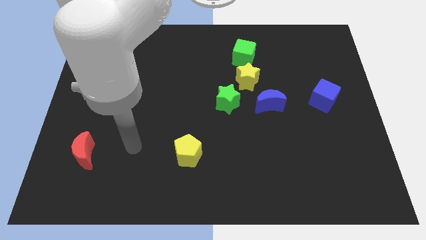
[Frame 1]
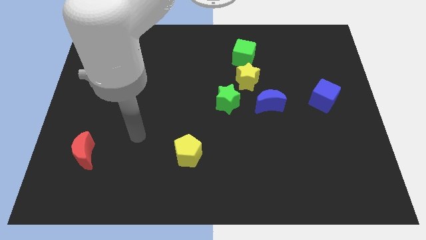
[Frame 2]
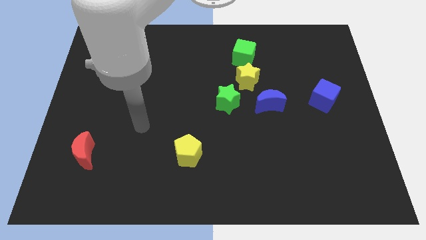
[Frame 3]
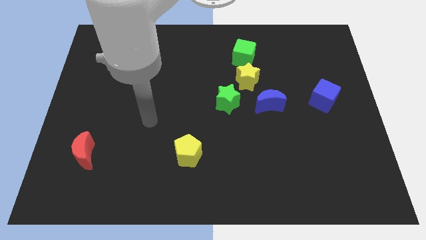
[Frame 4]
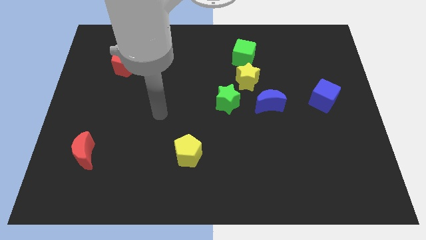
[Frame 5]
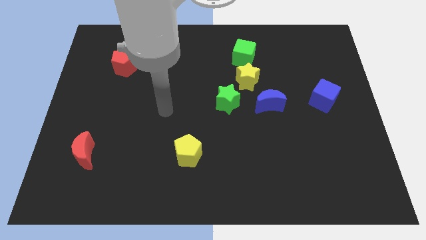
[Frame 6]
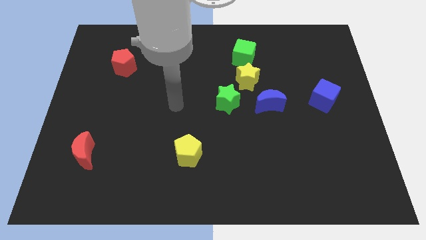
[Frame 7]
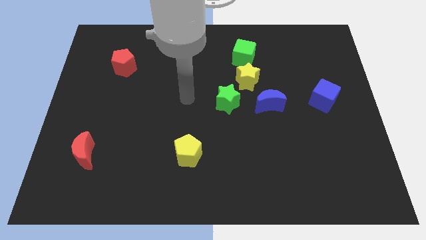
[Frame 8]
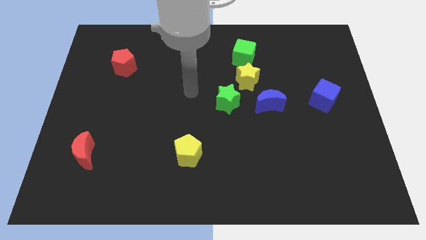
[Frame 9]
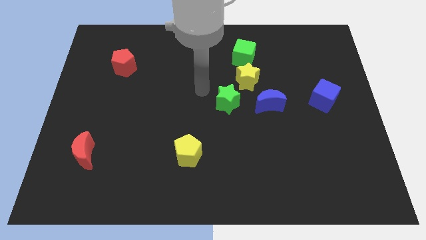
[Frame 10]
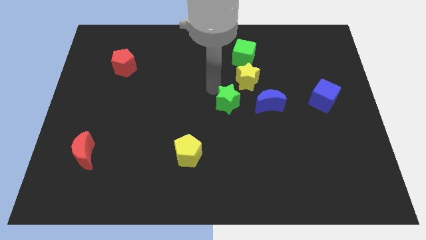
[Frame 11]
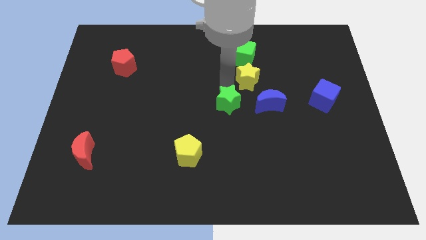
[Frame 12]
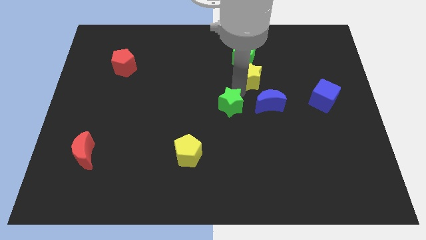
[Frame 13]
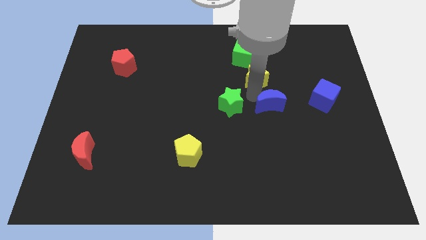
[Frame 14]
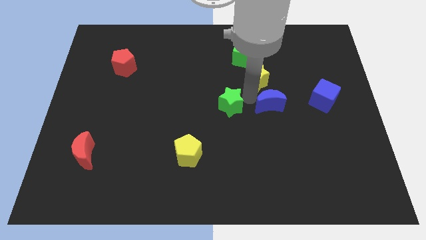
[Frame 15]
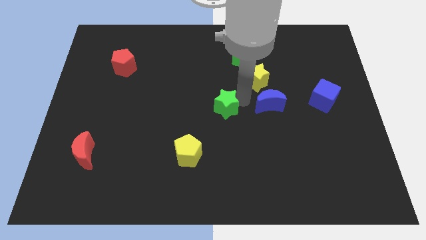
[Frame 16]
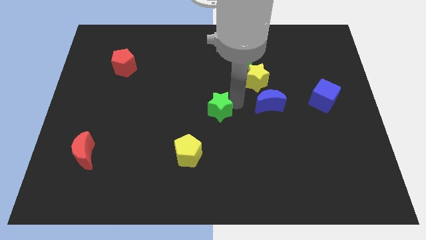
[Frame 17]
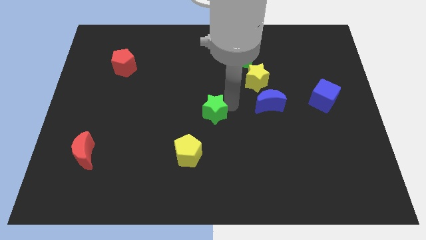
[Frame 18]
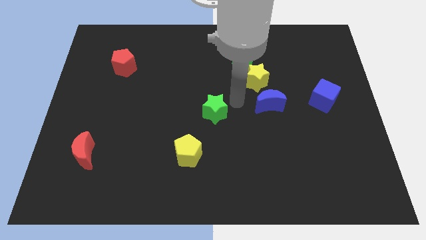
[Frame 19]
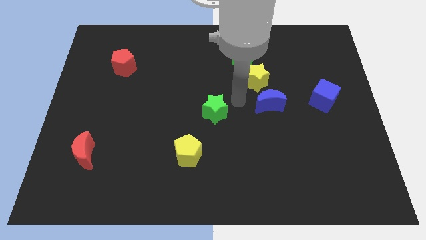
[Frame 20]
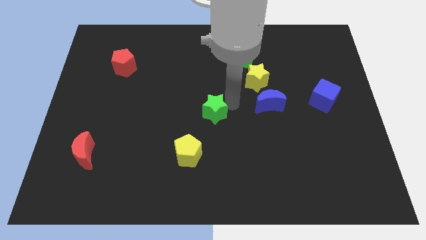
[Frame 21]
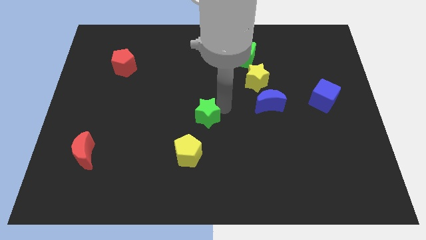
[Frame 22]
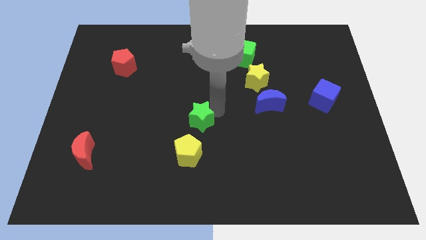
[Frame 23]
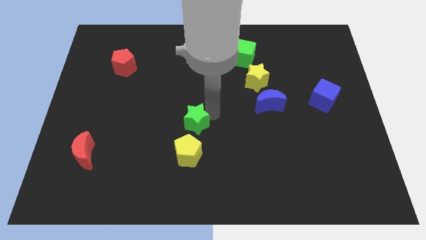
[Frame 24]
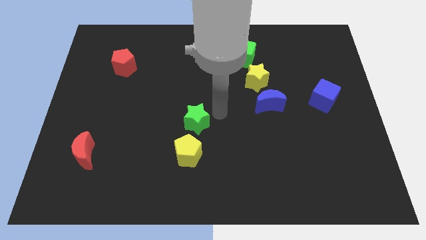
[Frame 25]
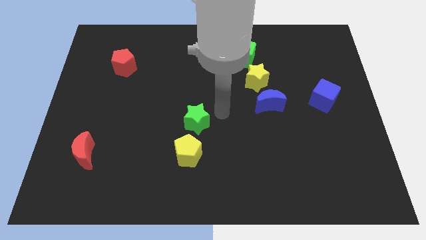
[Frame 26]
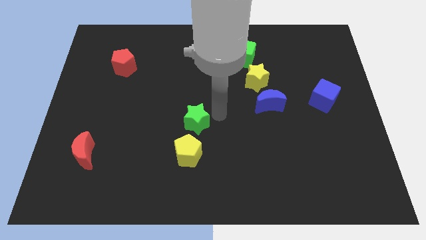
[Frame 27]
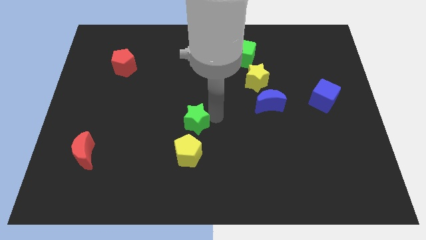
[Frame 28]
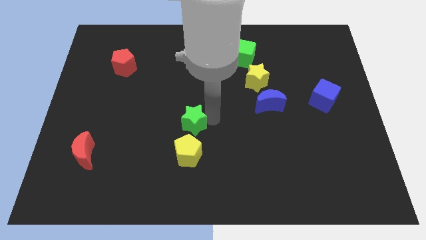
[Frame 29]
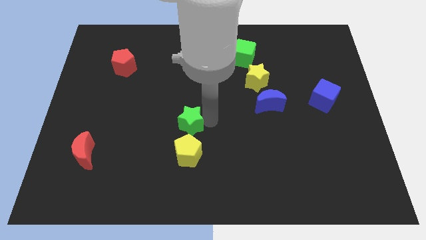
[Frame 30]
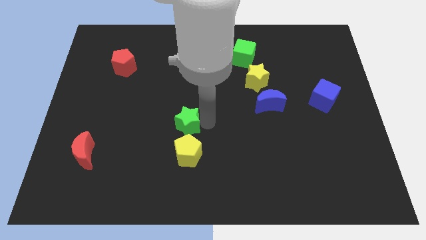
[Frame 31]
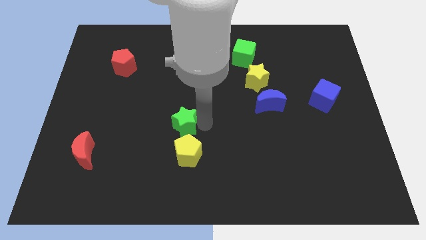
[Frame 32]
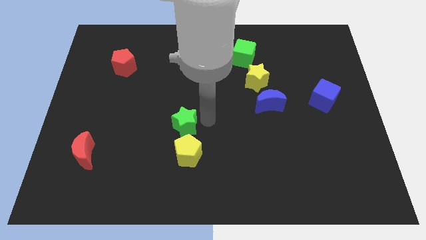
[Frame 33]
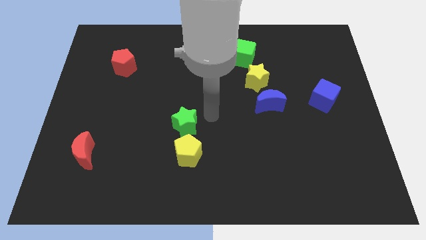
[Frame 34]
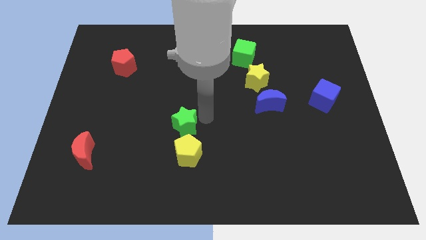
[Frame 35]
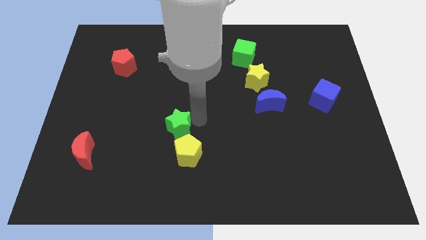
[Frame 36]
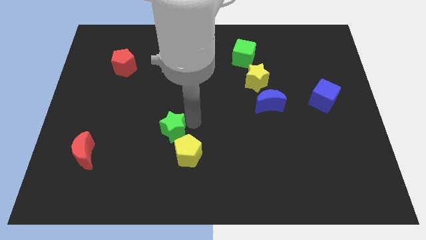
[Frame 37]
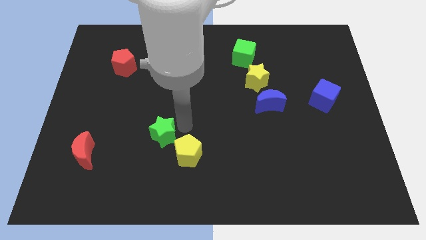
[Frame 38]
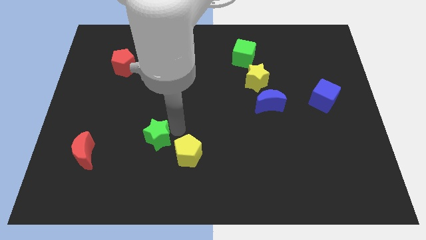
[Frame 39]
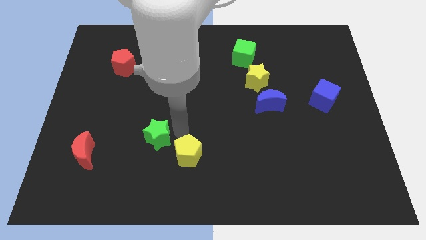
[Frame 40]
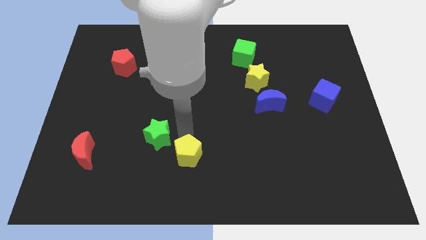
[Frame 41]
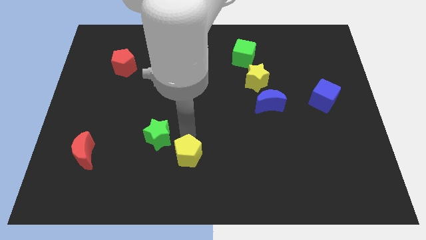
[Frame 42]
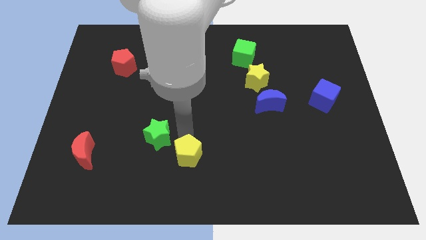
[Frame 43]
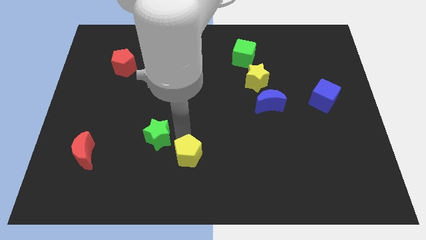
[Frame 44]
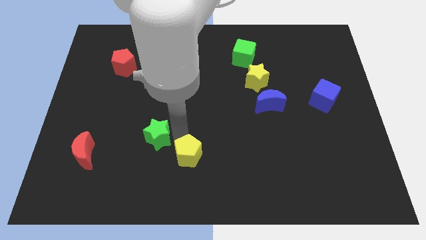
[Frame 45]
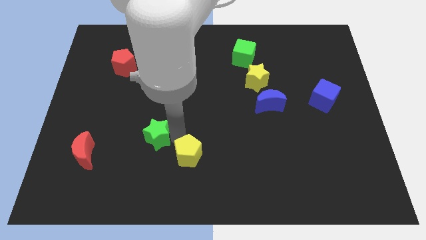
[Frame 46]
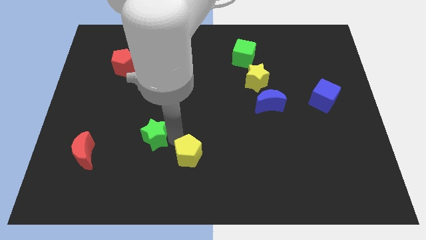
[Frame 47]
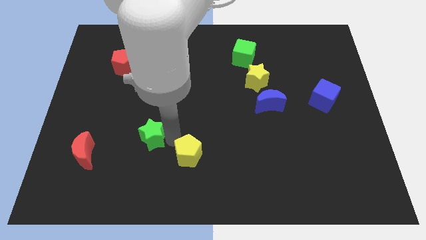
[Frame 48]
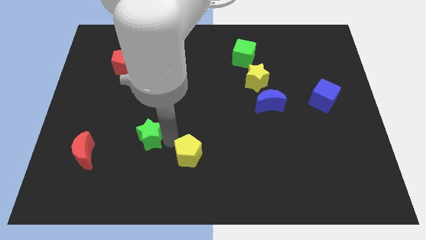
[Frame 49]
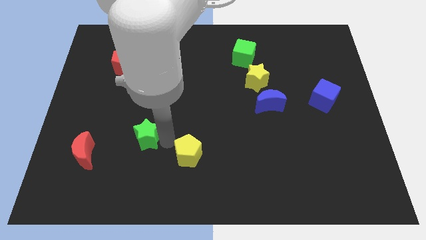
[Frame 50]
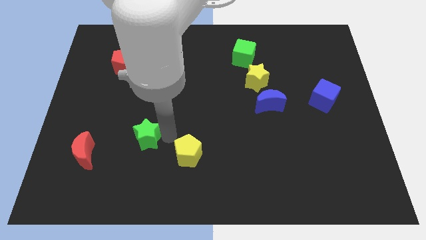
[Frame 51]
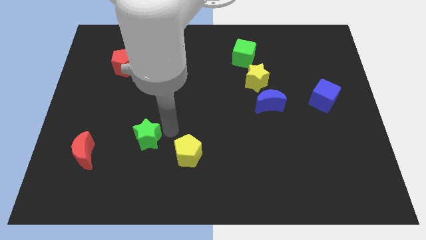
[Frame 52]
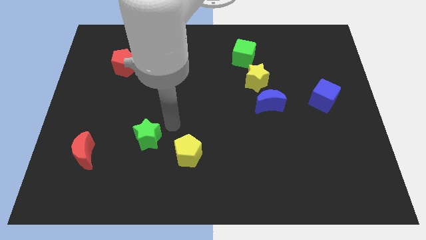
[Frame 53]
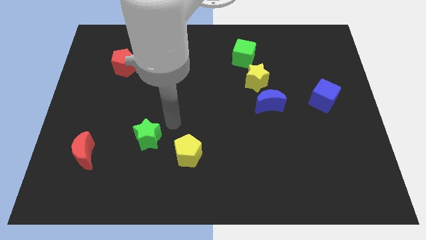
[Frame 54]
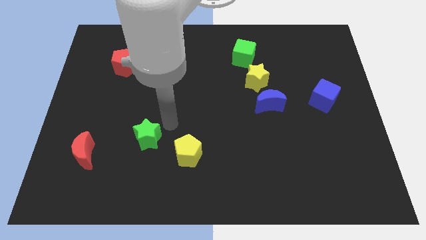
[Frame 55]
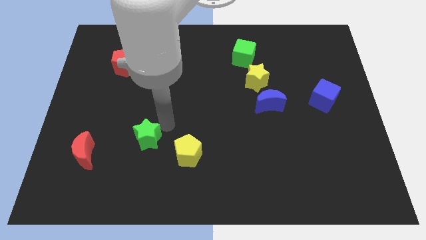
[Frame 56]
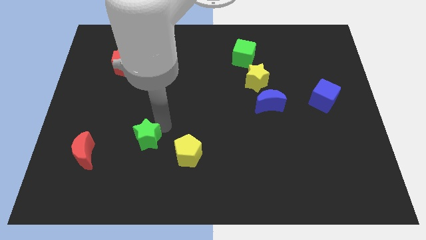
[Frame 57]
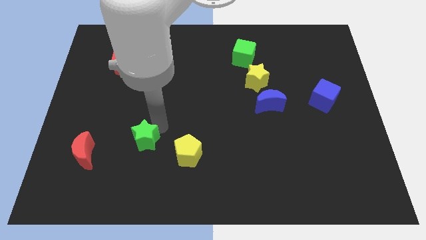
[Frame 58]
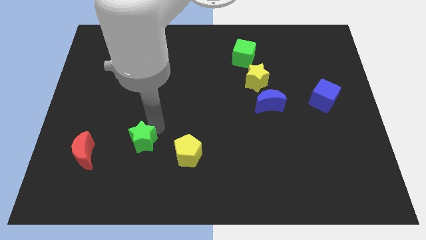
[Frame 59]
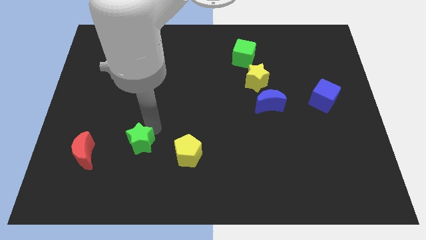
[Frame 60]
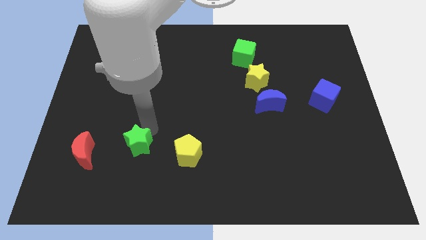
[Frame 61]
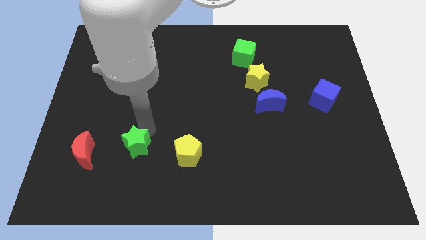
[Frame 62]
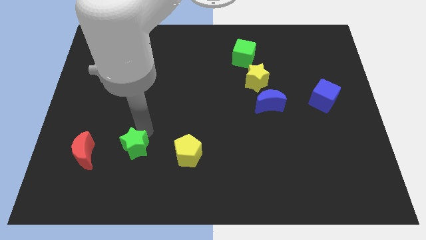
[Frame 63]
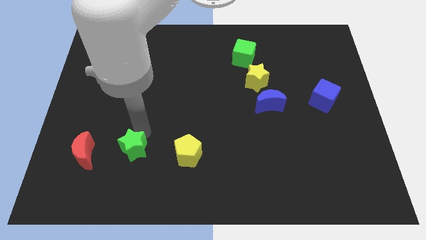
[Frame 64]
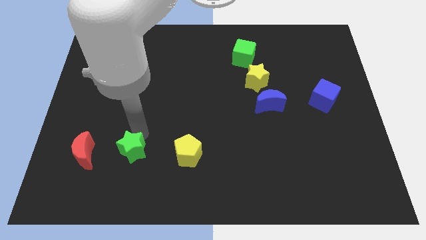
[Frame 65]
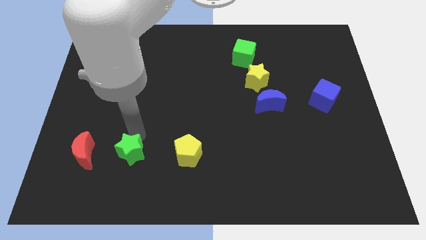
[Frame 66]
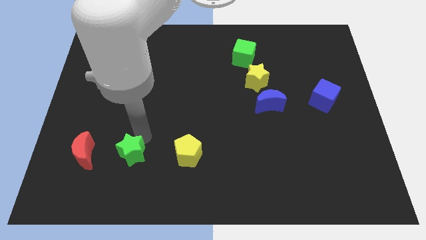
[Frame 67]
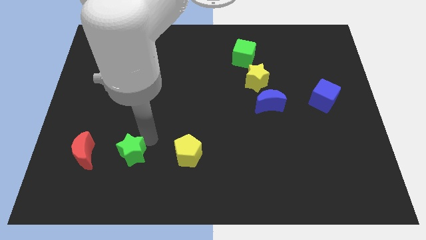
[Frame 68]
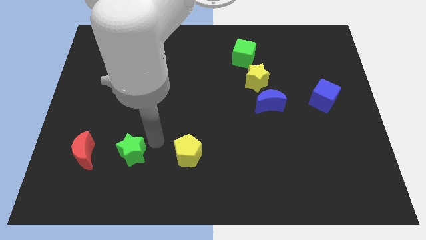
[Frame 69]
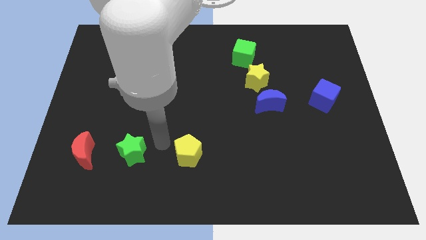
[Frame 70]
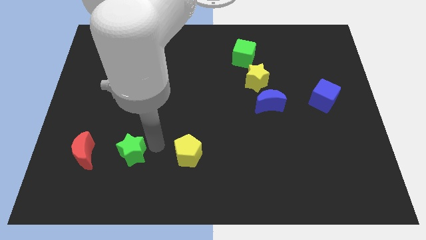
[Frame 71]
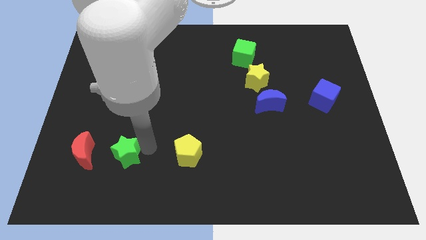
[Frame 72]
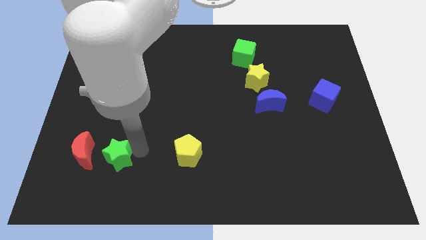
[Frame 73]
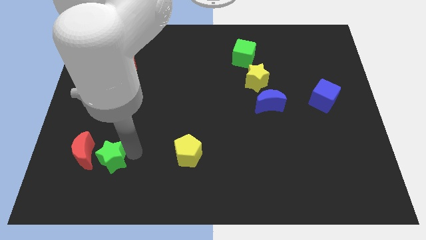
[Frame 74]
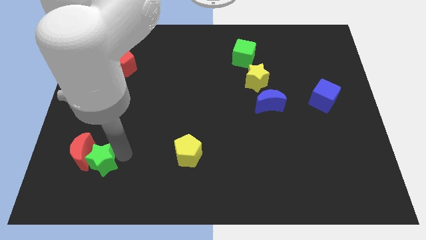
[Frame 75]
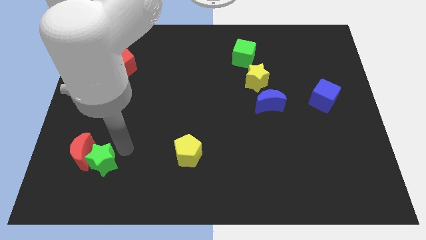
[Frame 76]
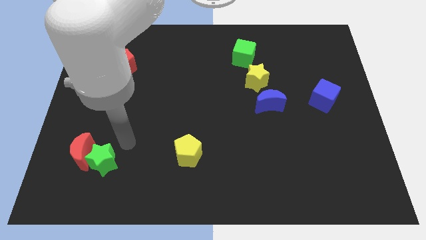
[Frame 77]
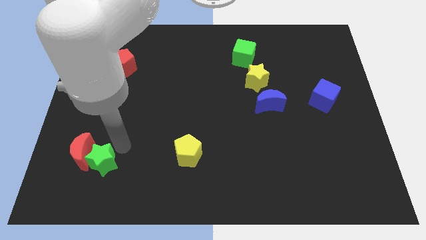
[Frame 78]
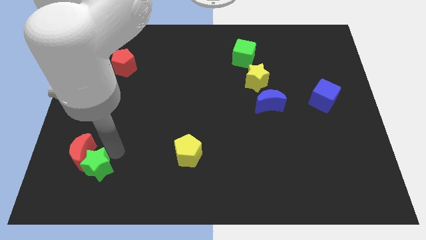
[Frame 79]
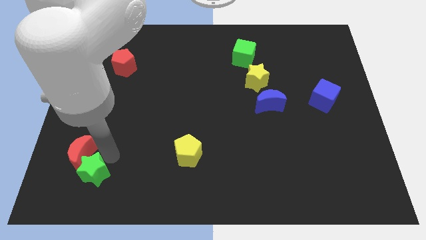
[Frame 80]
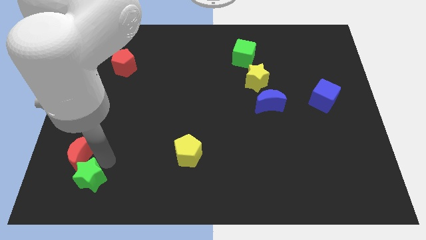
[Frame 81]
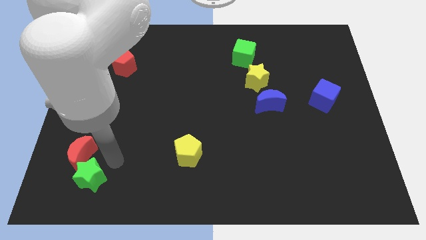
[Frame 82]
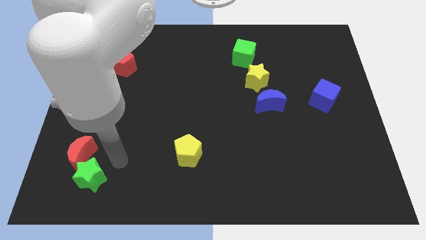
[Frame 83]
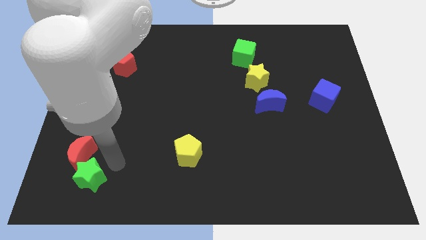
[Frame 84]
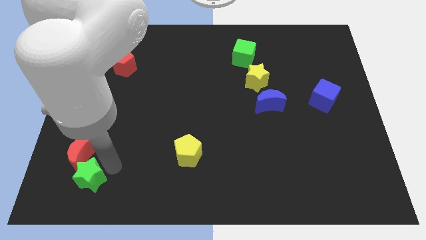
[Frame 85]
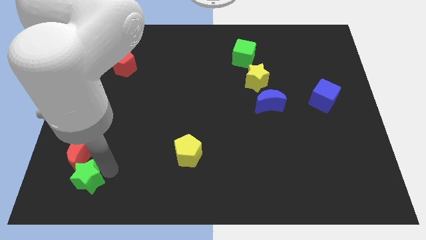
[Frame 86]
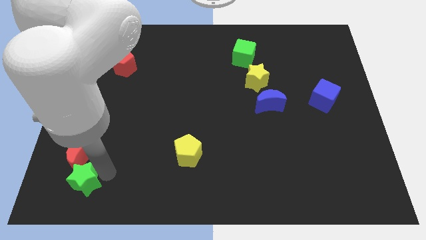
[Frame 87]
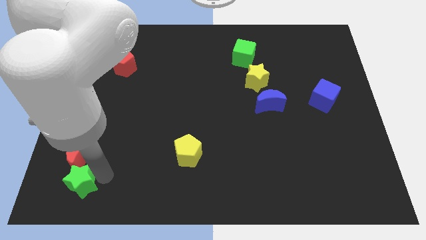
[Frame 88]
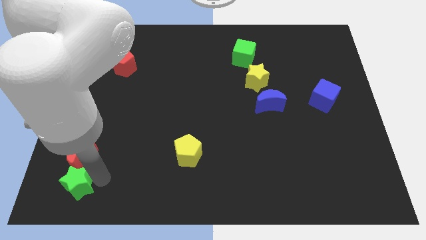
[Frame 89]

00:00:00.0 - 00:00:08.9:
put the green star to the bottom left of the board
